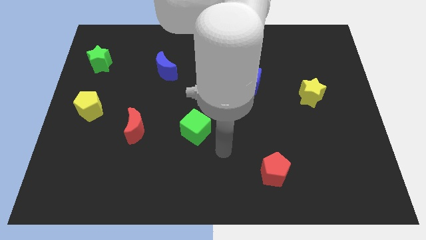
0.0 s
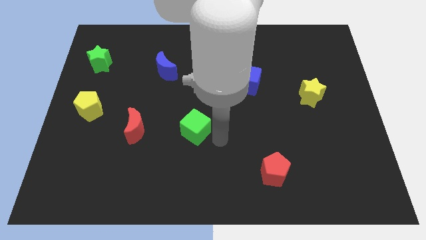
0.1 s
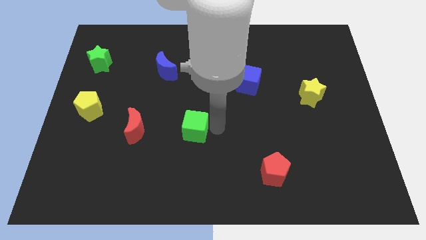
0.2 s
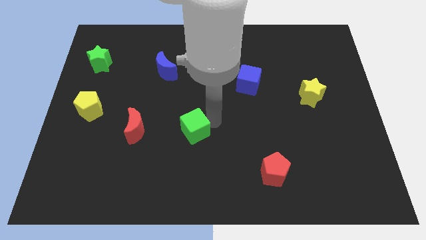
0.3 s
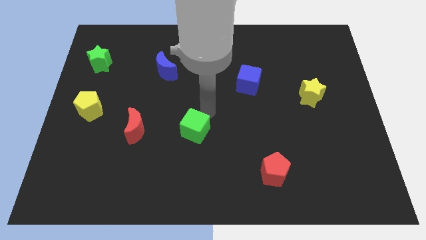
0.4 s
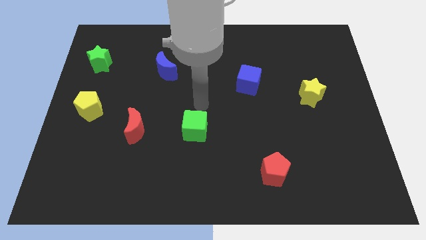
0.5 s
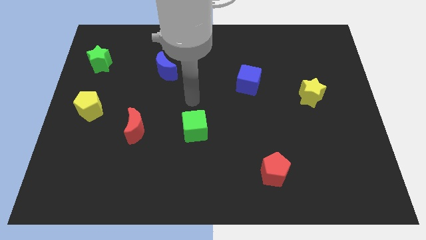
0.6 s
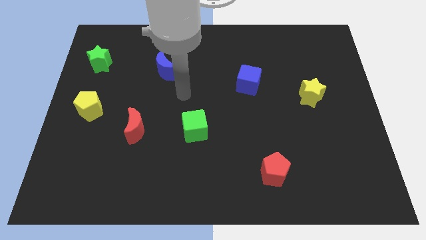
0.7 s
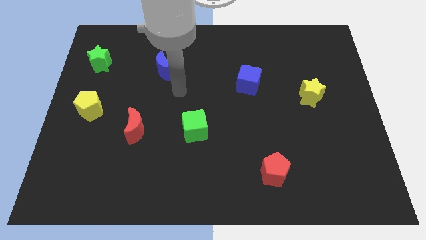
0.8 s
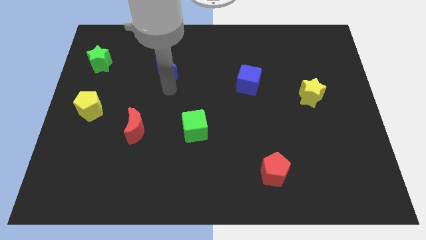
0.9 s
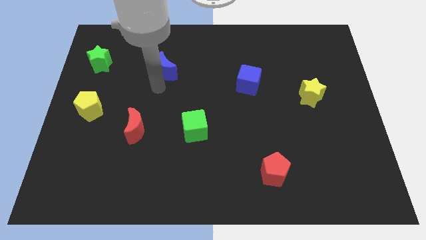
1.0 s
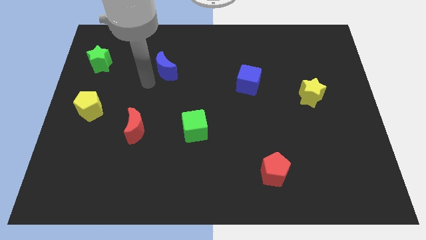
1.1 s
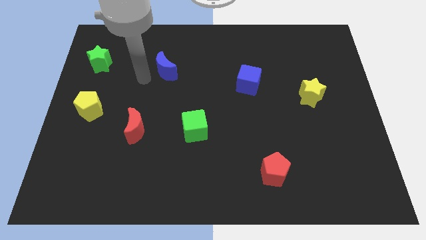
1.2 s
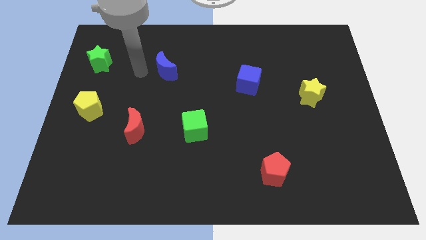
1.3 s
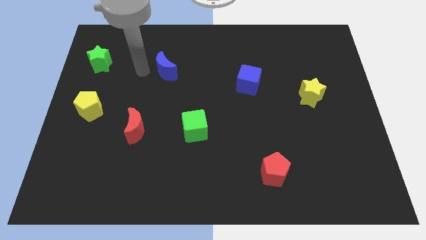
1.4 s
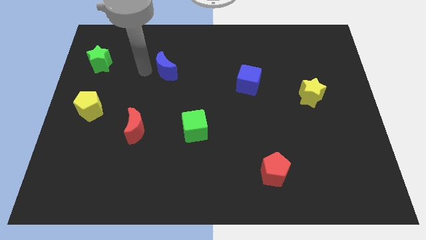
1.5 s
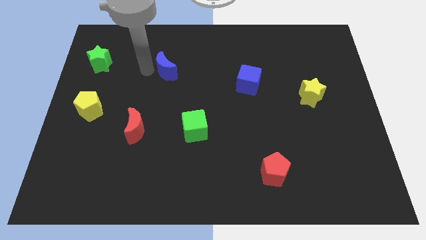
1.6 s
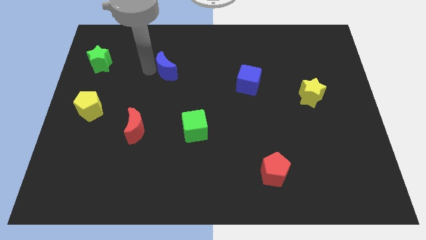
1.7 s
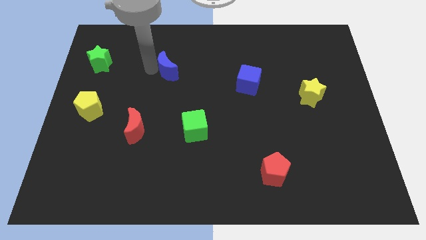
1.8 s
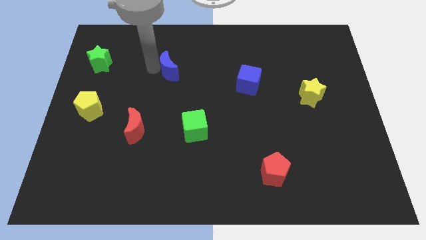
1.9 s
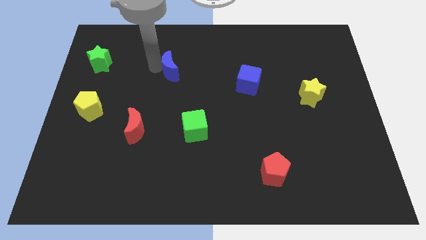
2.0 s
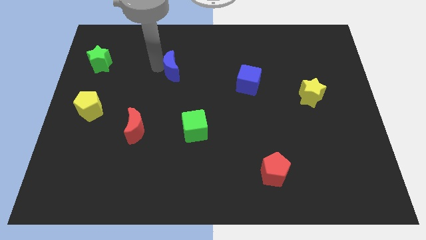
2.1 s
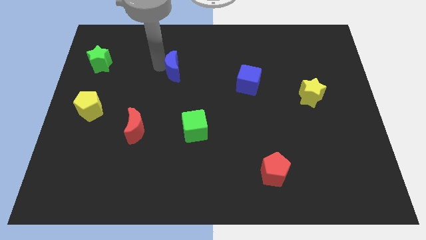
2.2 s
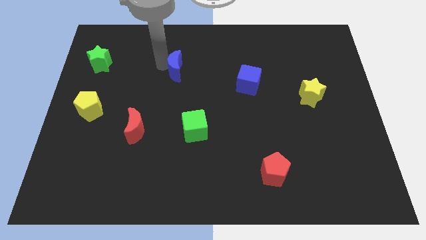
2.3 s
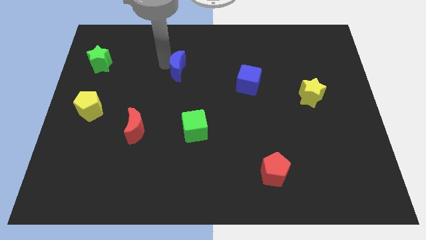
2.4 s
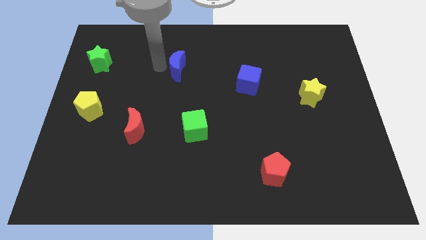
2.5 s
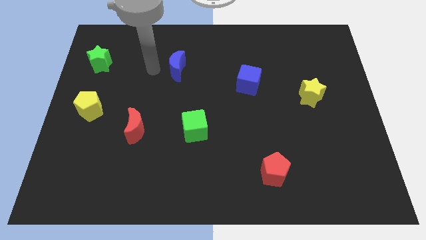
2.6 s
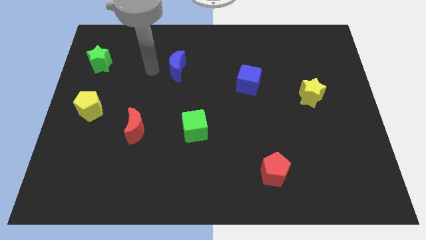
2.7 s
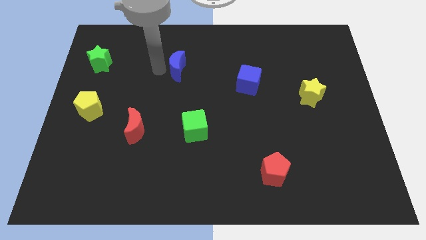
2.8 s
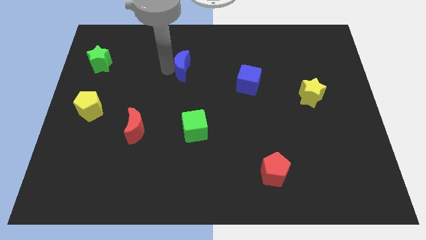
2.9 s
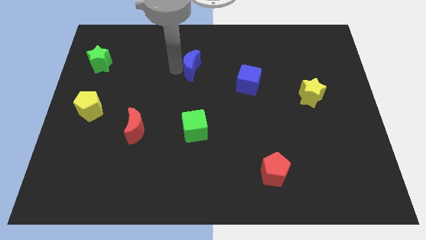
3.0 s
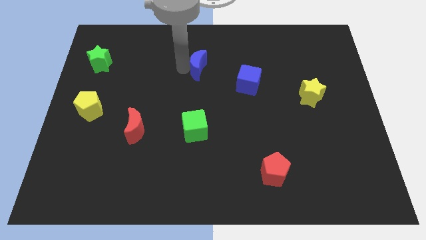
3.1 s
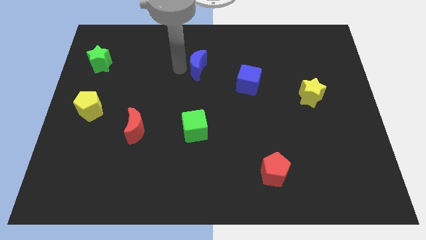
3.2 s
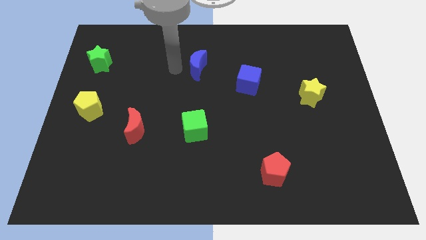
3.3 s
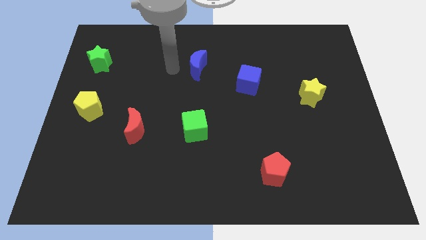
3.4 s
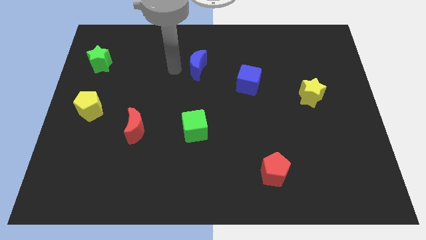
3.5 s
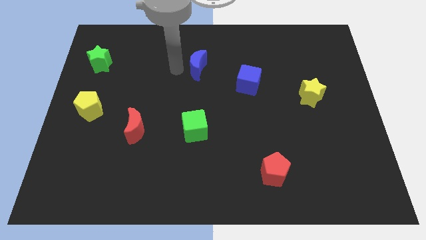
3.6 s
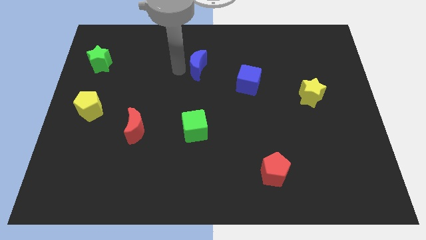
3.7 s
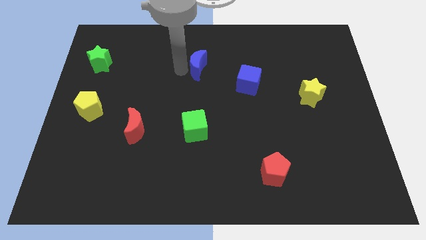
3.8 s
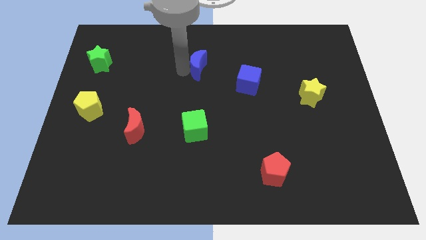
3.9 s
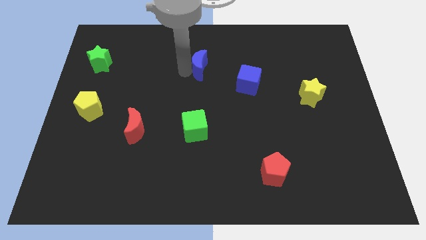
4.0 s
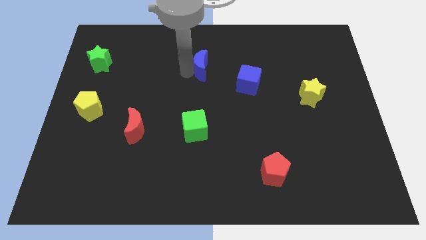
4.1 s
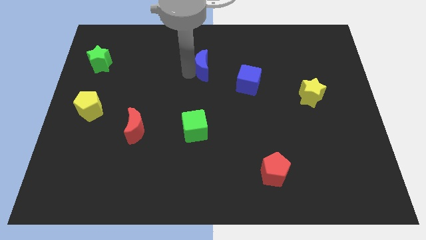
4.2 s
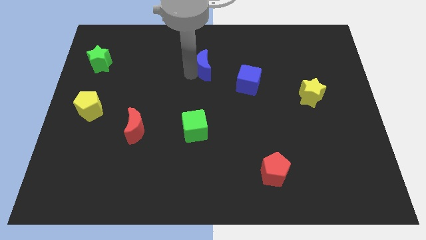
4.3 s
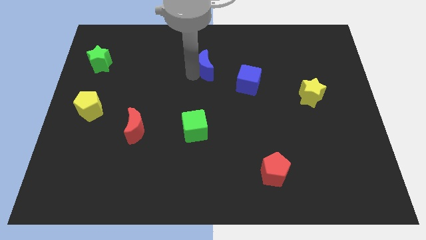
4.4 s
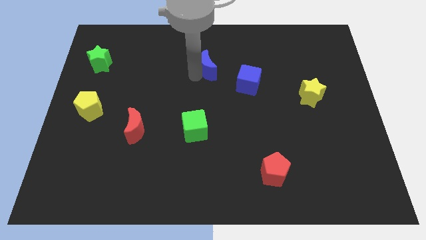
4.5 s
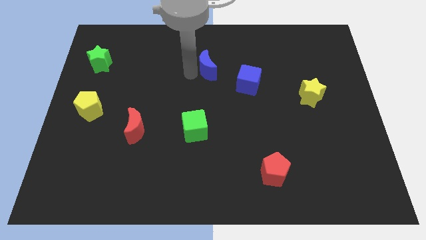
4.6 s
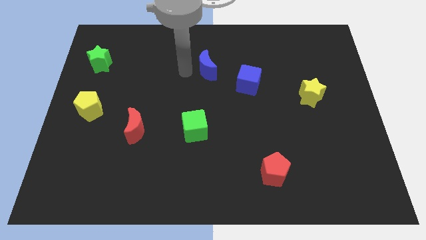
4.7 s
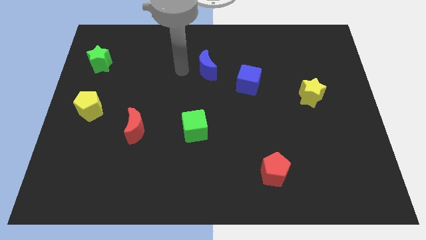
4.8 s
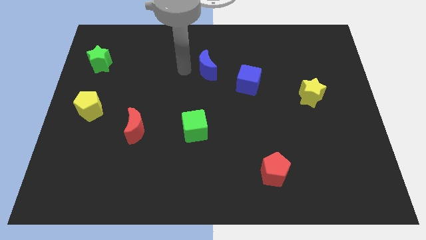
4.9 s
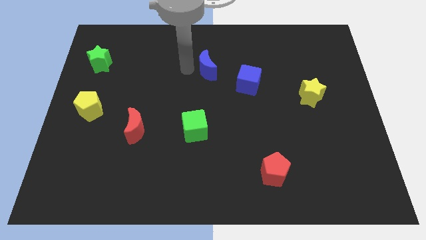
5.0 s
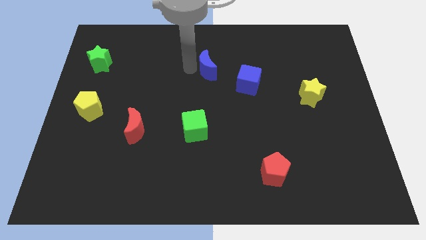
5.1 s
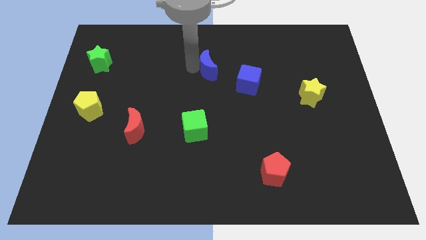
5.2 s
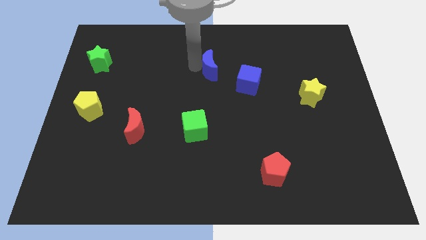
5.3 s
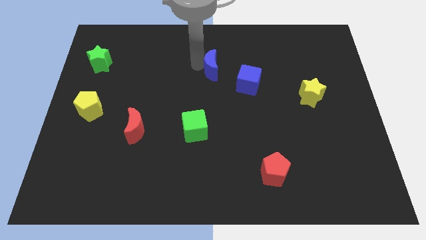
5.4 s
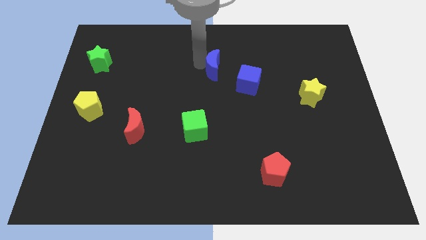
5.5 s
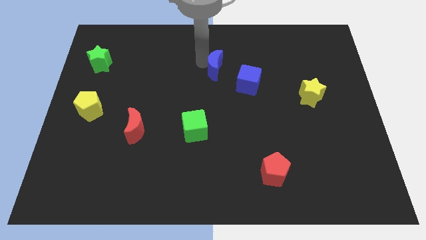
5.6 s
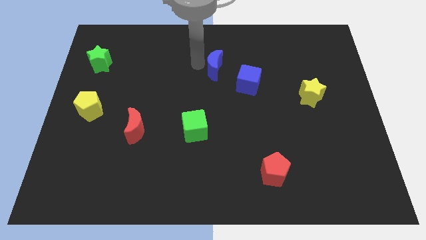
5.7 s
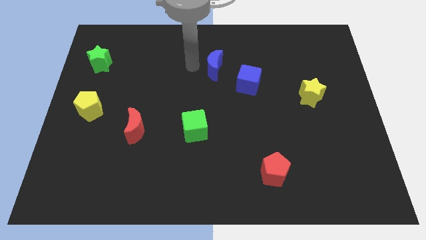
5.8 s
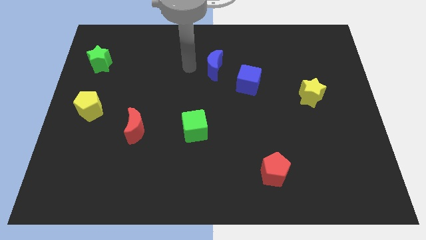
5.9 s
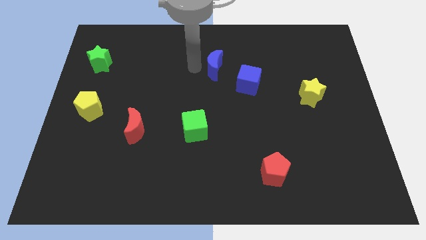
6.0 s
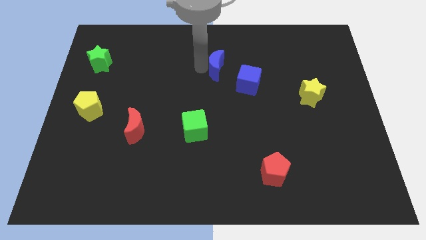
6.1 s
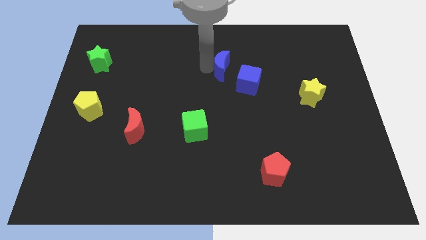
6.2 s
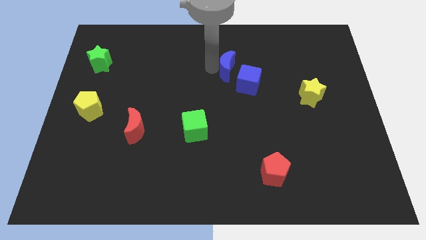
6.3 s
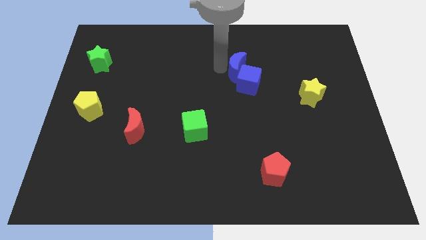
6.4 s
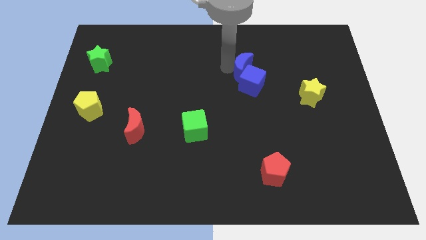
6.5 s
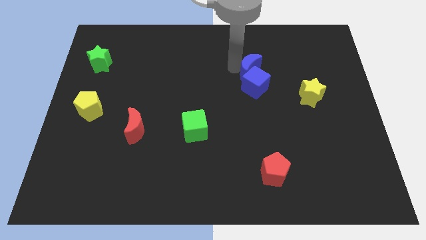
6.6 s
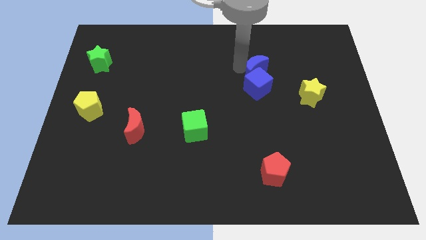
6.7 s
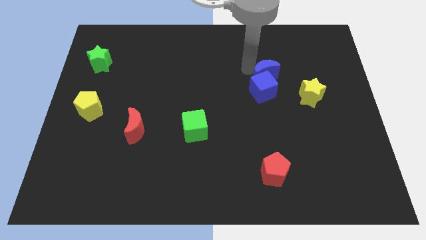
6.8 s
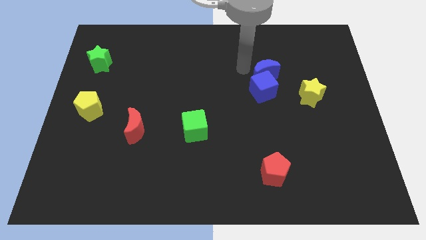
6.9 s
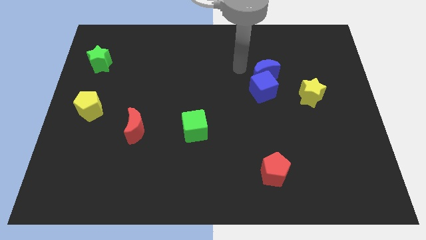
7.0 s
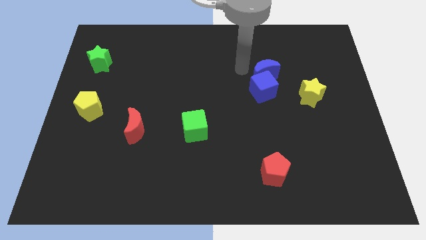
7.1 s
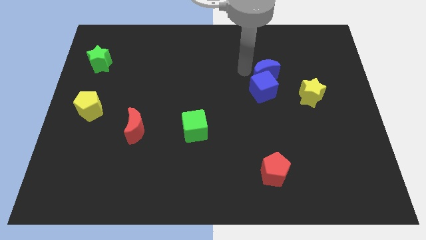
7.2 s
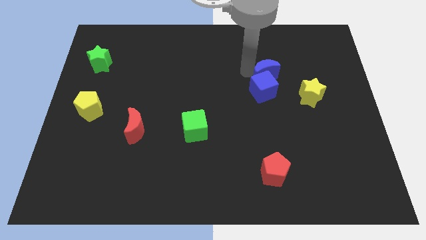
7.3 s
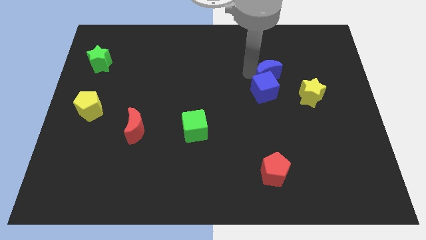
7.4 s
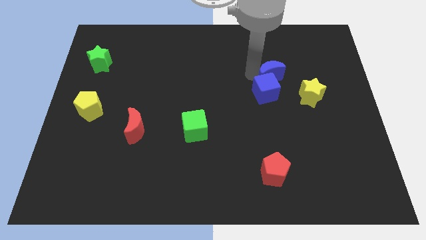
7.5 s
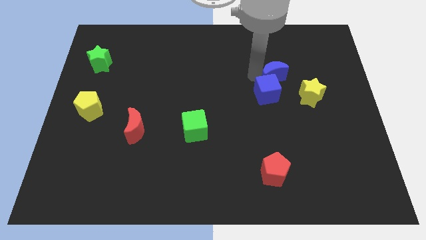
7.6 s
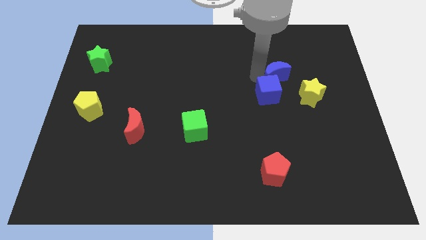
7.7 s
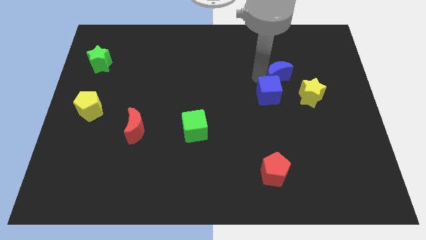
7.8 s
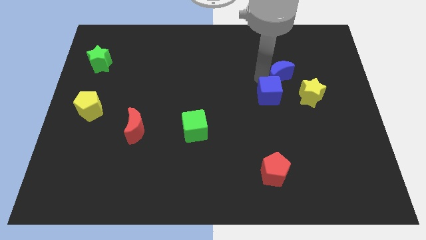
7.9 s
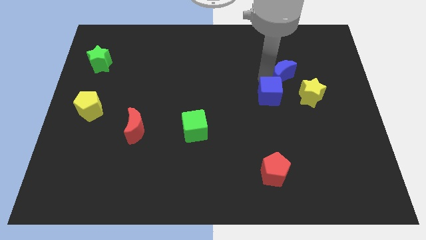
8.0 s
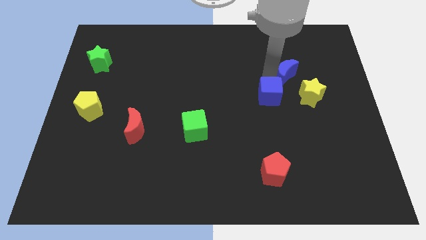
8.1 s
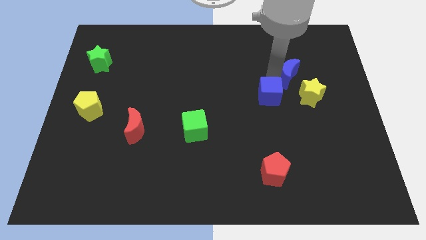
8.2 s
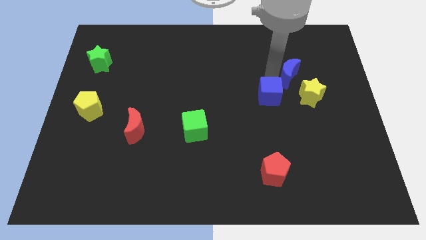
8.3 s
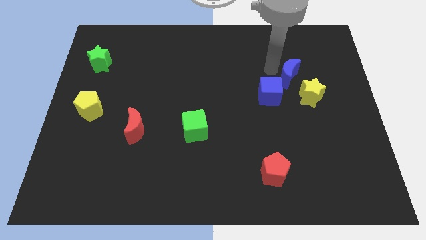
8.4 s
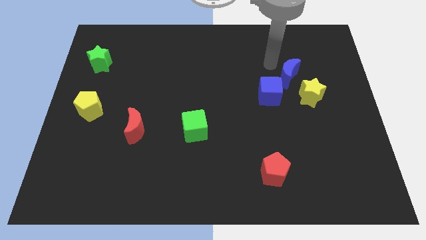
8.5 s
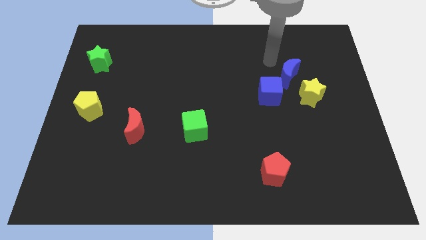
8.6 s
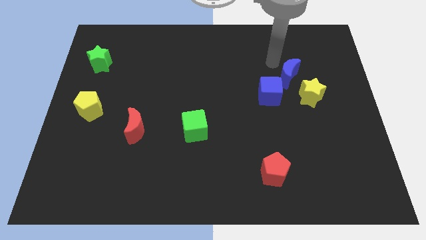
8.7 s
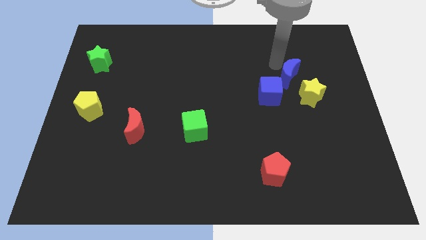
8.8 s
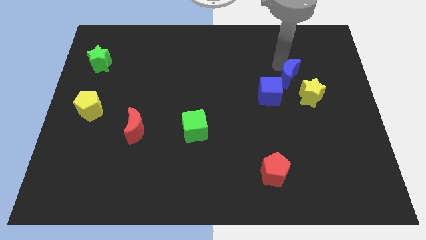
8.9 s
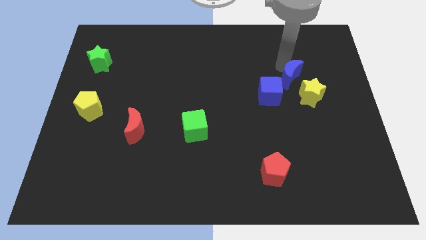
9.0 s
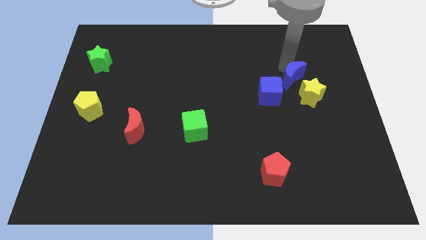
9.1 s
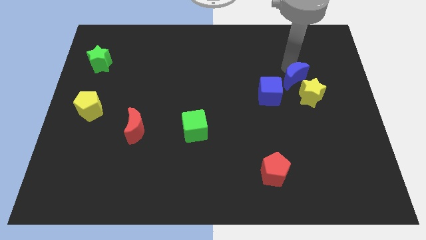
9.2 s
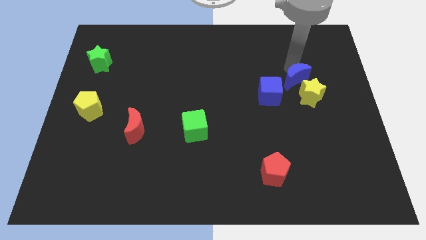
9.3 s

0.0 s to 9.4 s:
put the blue moon close to the yellow star
